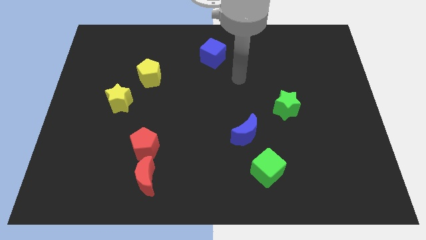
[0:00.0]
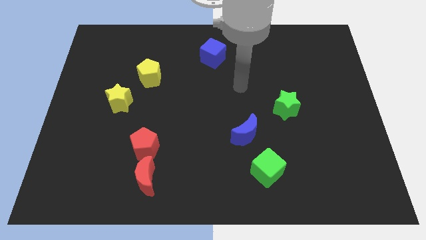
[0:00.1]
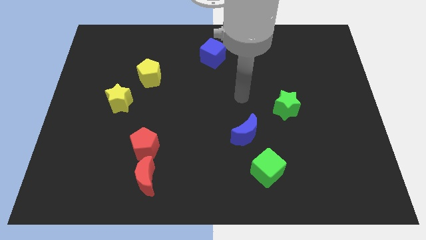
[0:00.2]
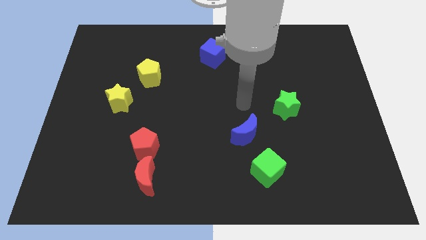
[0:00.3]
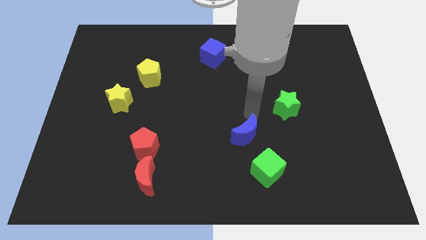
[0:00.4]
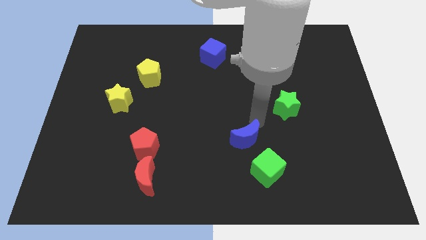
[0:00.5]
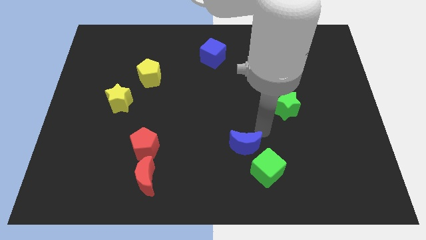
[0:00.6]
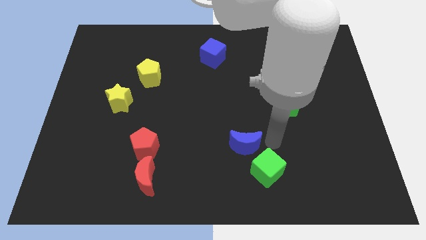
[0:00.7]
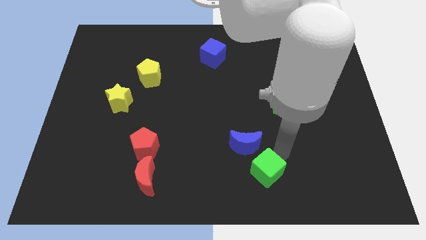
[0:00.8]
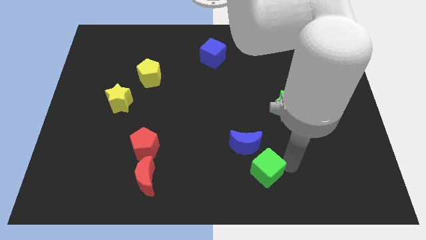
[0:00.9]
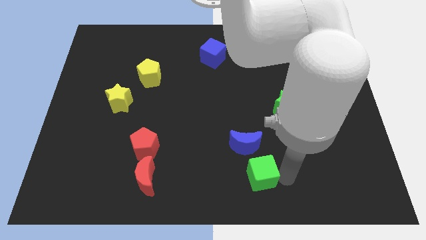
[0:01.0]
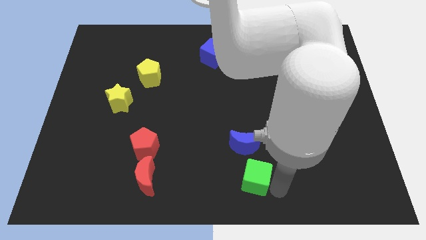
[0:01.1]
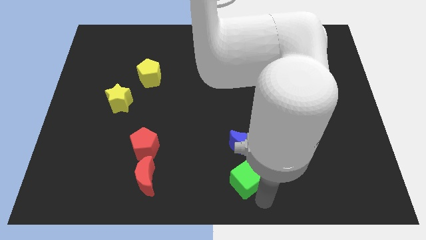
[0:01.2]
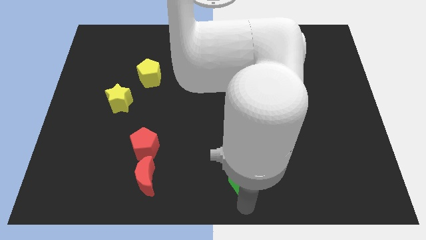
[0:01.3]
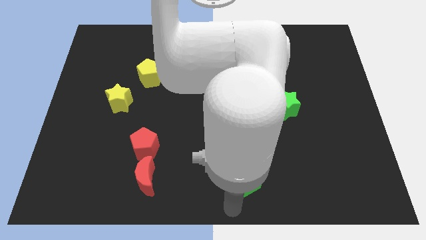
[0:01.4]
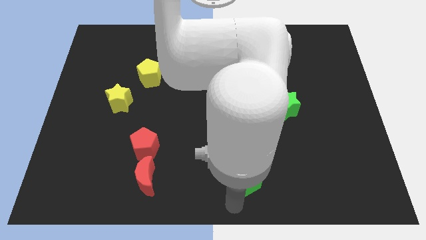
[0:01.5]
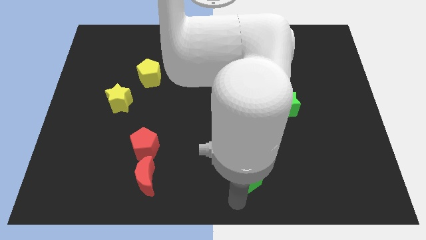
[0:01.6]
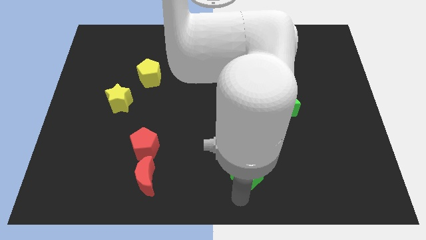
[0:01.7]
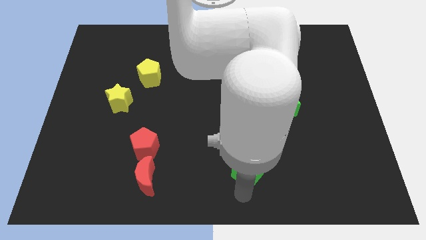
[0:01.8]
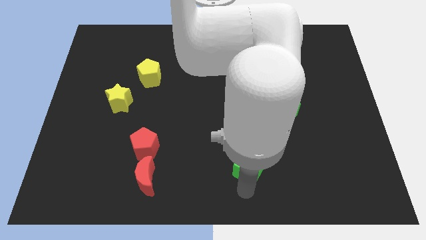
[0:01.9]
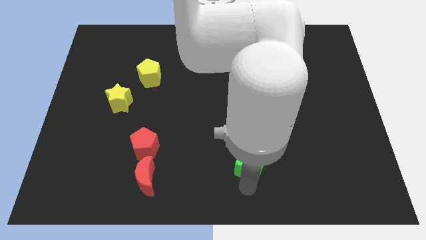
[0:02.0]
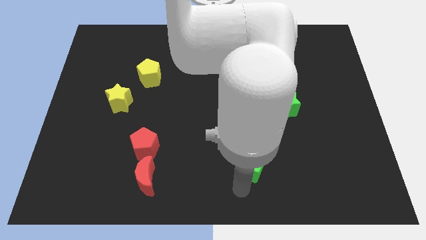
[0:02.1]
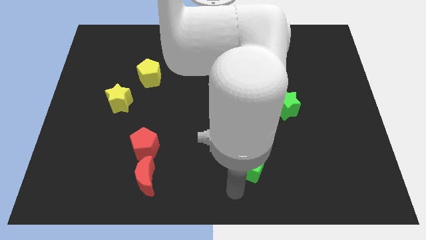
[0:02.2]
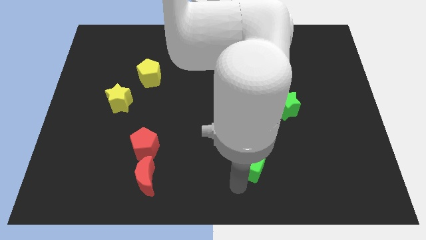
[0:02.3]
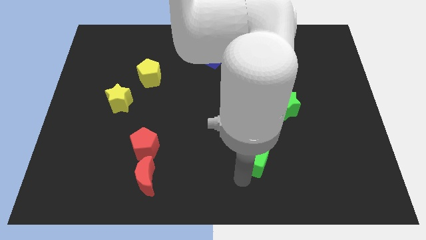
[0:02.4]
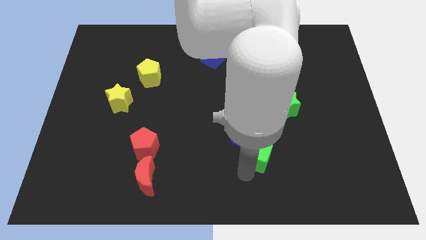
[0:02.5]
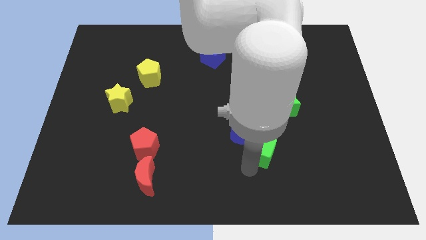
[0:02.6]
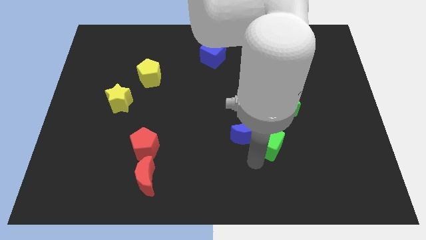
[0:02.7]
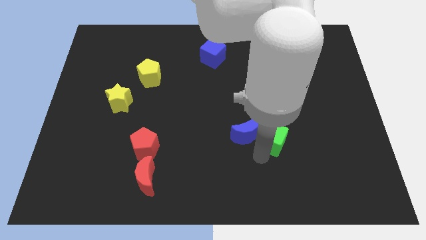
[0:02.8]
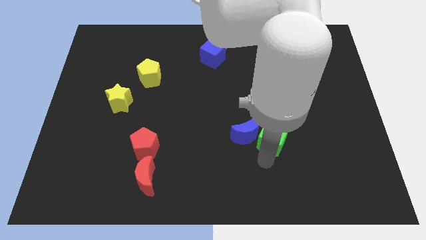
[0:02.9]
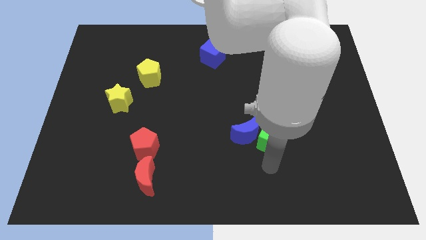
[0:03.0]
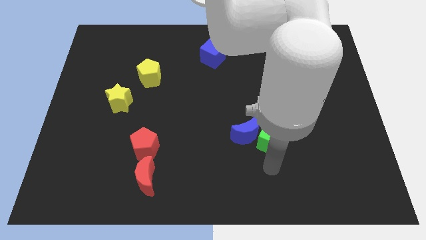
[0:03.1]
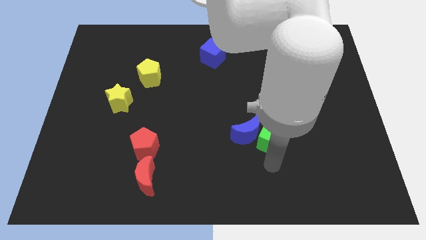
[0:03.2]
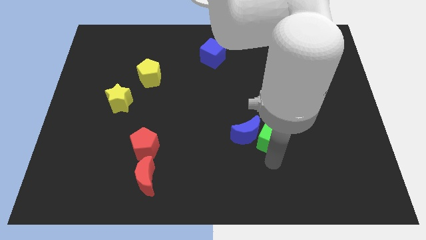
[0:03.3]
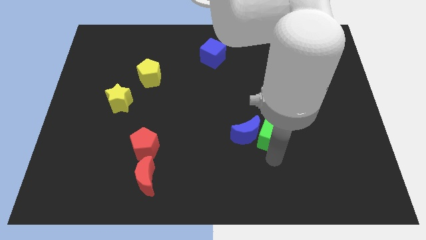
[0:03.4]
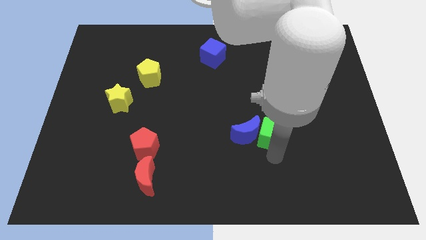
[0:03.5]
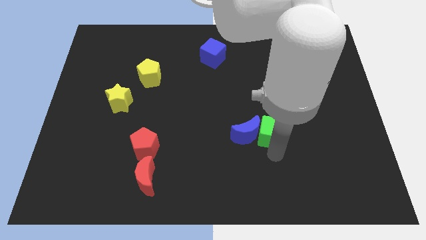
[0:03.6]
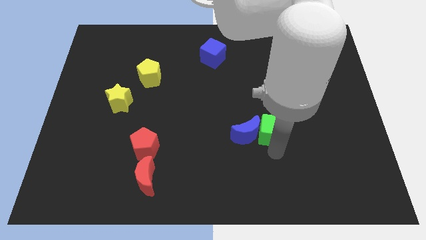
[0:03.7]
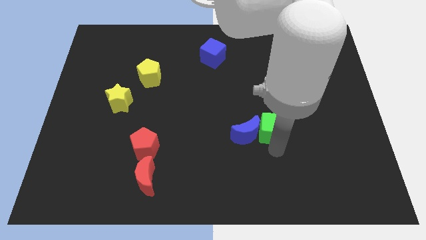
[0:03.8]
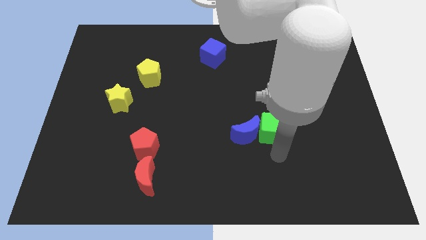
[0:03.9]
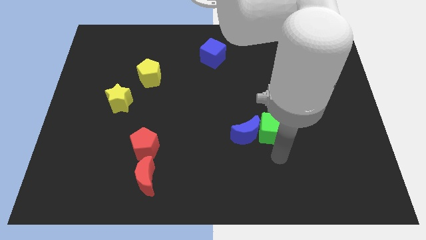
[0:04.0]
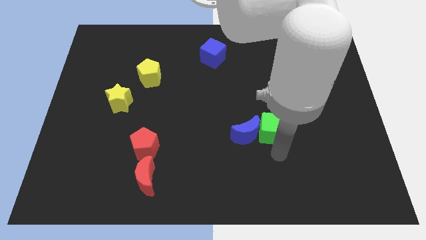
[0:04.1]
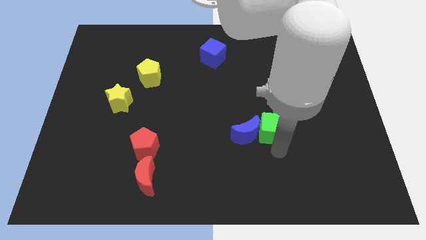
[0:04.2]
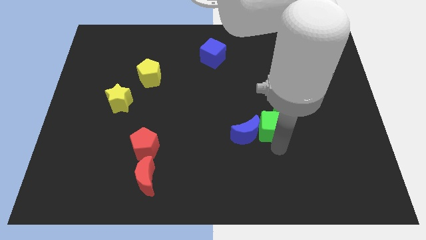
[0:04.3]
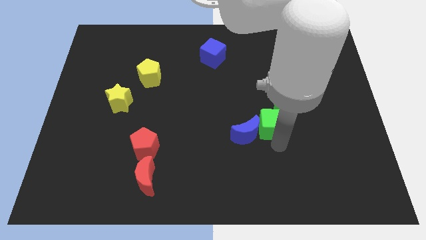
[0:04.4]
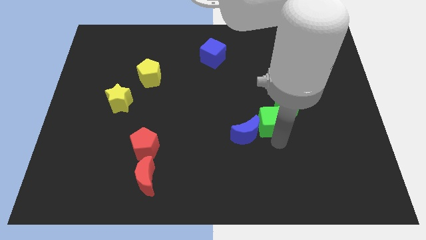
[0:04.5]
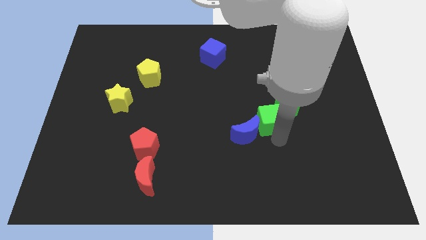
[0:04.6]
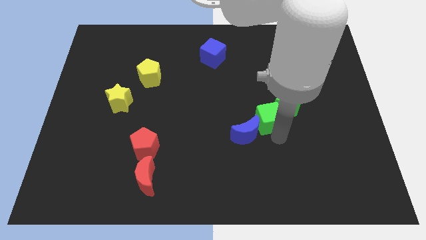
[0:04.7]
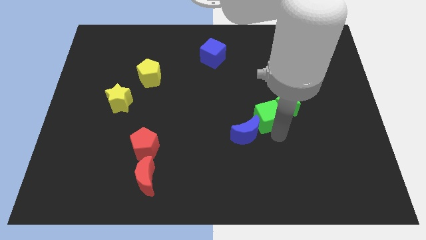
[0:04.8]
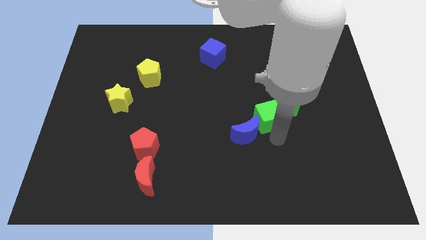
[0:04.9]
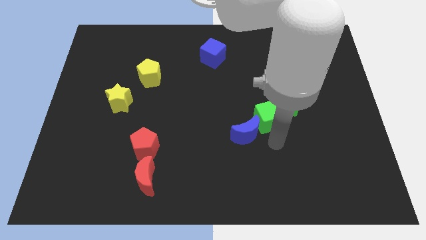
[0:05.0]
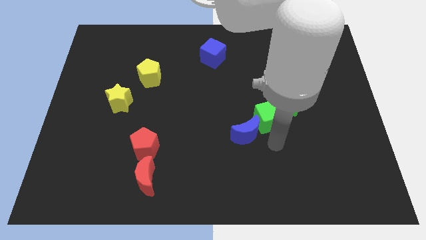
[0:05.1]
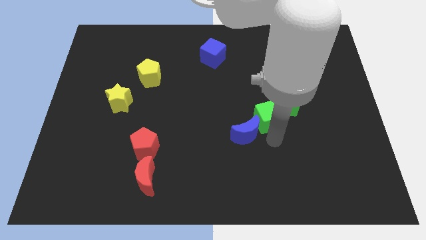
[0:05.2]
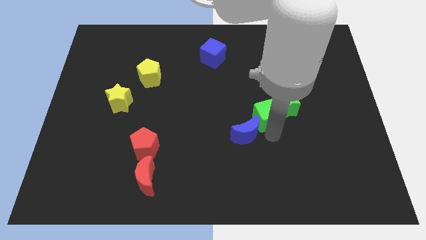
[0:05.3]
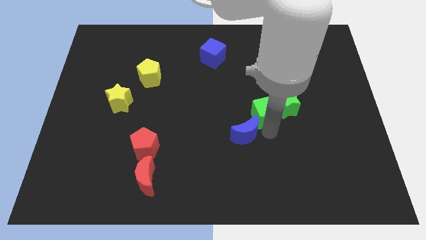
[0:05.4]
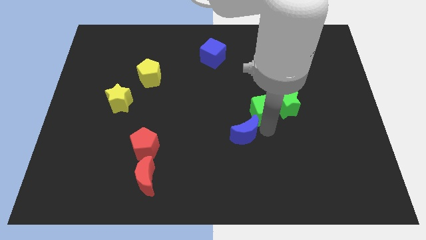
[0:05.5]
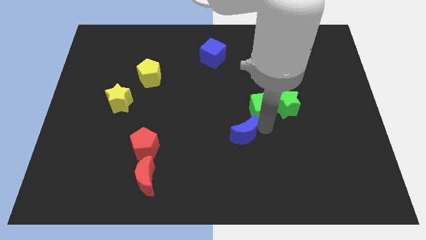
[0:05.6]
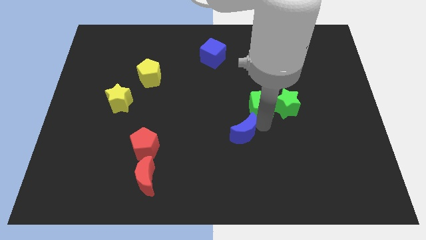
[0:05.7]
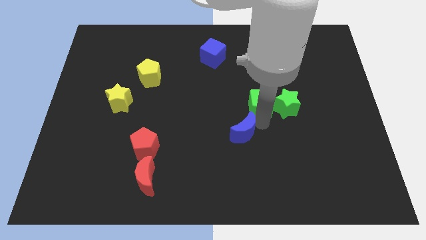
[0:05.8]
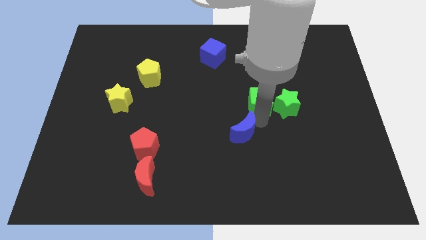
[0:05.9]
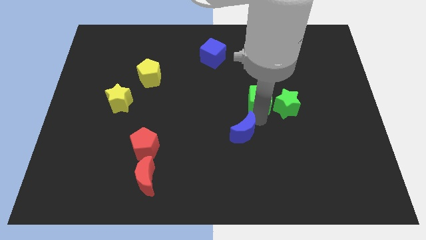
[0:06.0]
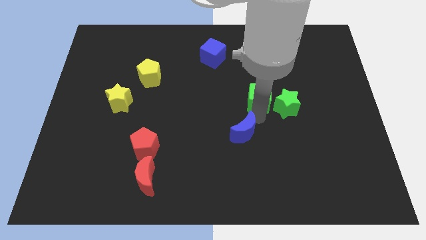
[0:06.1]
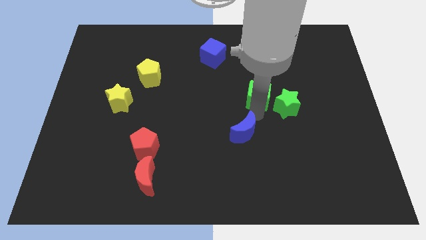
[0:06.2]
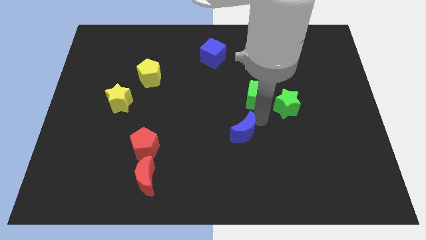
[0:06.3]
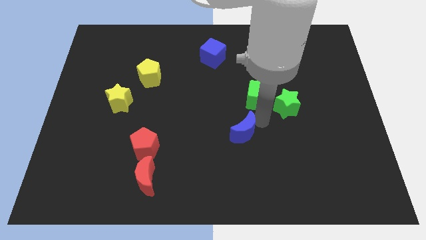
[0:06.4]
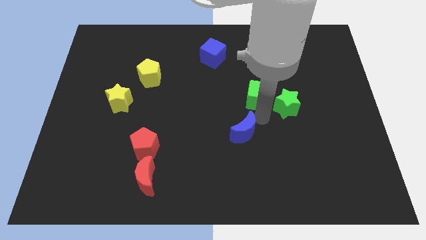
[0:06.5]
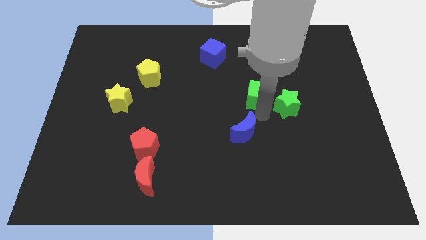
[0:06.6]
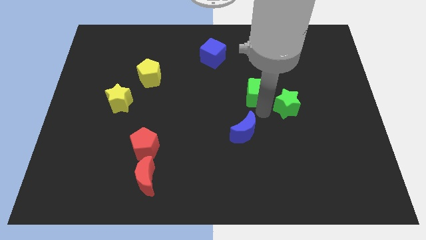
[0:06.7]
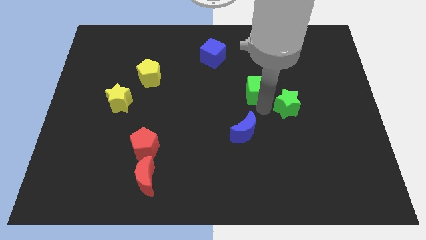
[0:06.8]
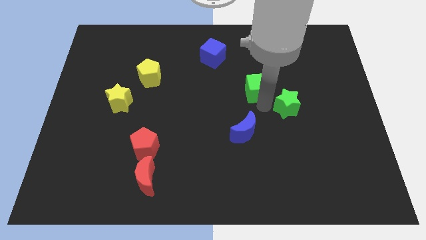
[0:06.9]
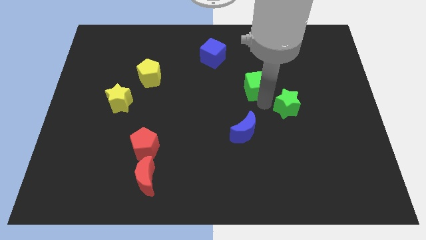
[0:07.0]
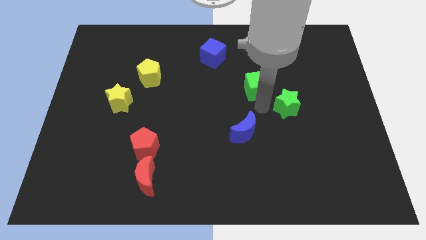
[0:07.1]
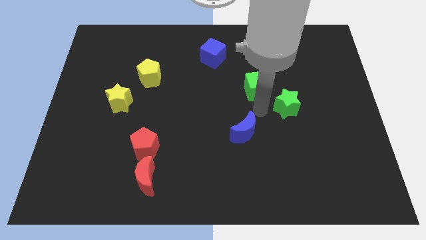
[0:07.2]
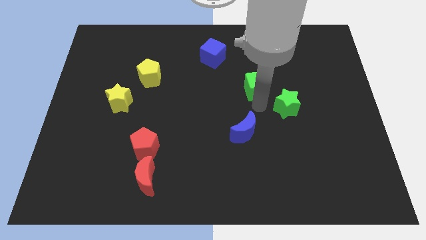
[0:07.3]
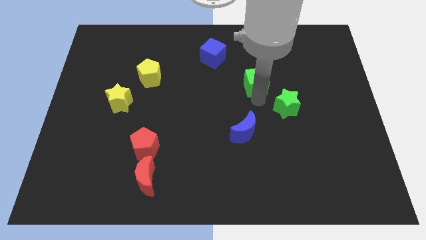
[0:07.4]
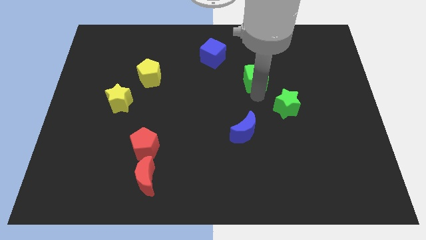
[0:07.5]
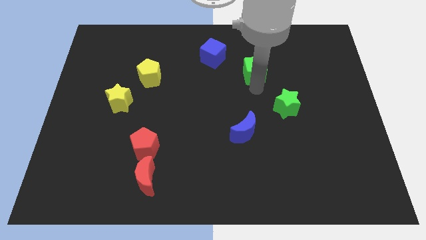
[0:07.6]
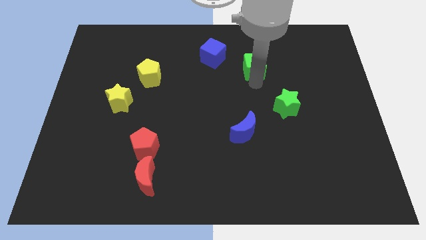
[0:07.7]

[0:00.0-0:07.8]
move the green cube to the right of the blue cube
